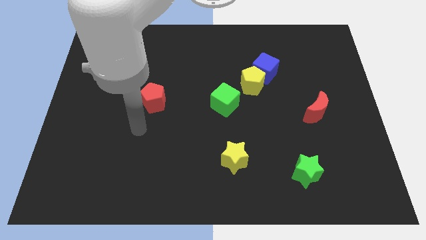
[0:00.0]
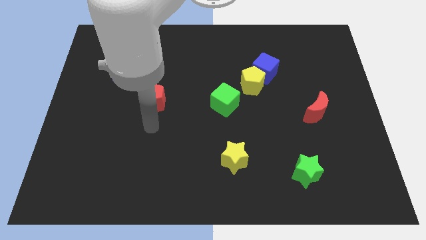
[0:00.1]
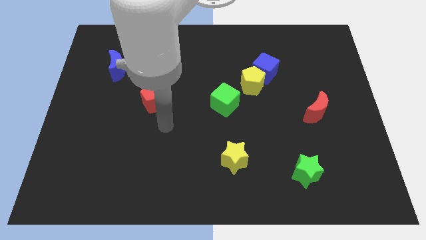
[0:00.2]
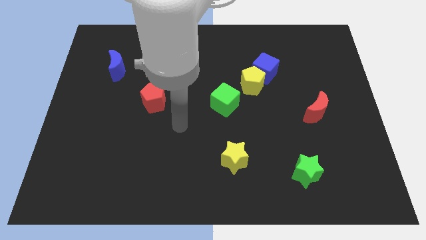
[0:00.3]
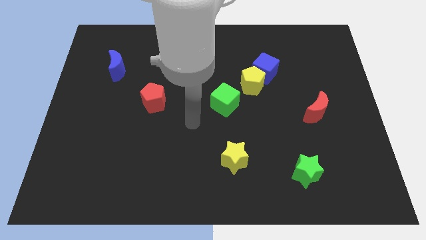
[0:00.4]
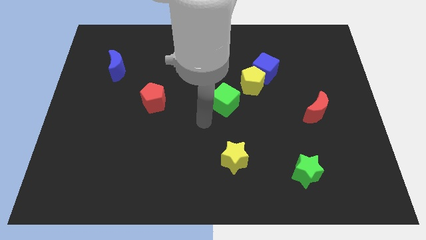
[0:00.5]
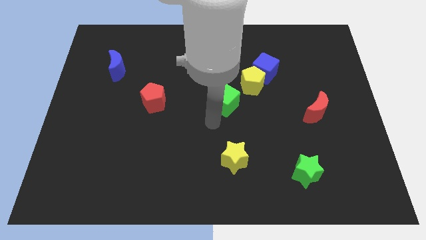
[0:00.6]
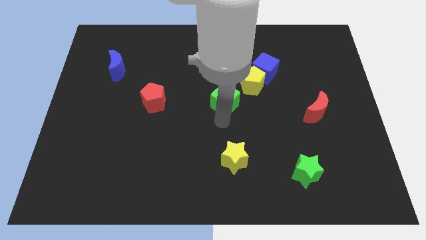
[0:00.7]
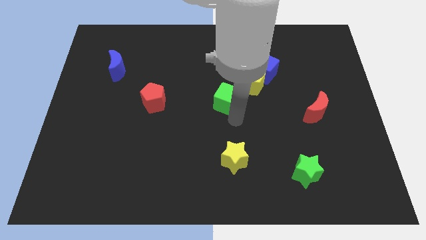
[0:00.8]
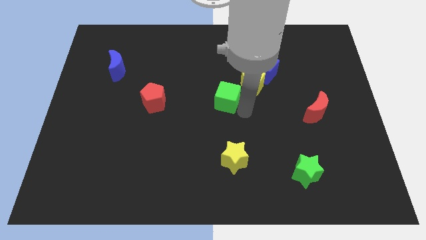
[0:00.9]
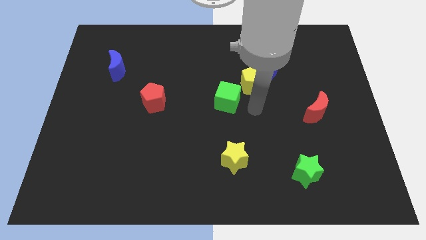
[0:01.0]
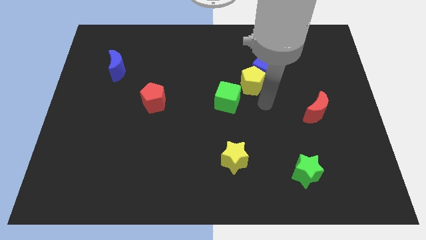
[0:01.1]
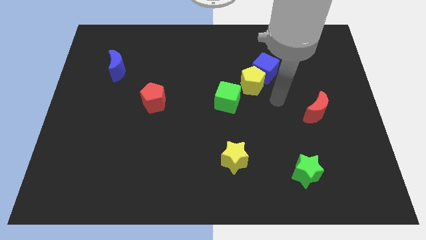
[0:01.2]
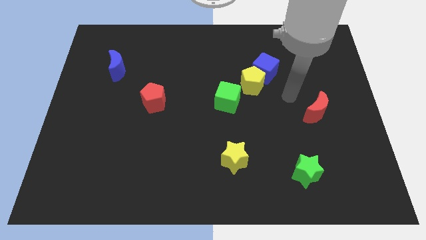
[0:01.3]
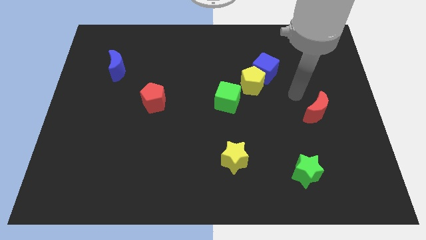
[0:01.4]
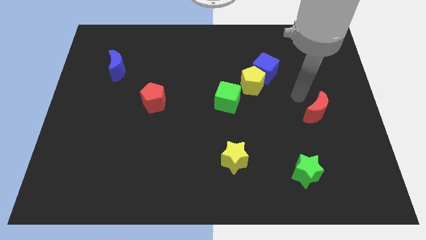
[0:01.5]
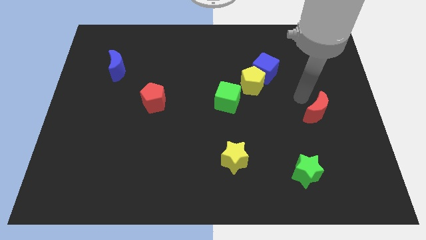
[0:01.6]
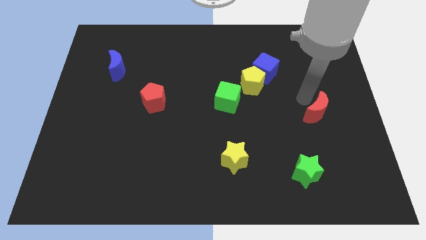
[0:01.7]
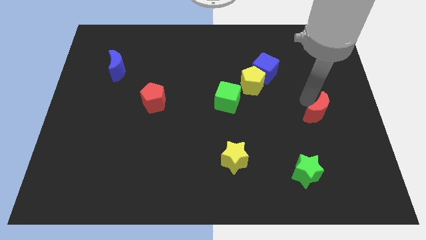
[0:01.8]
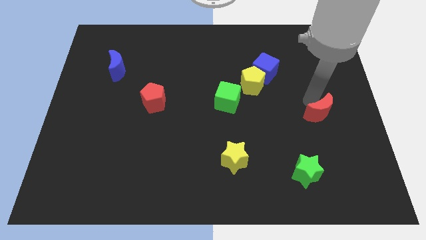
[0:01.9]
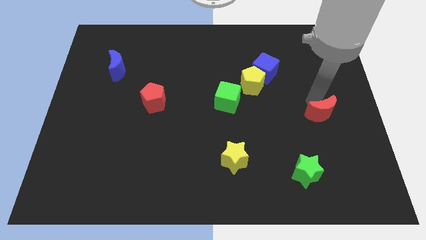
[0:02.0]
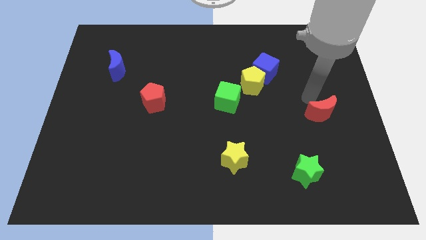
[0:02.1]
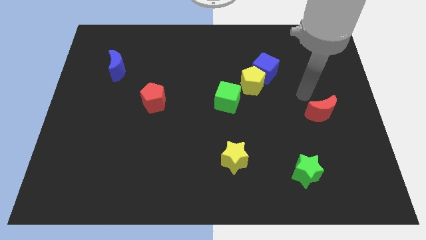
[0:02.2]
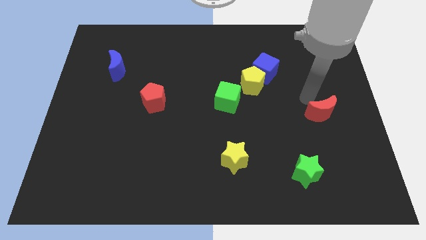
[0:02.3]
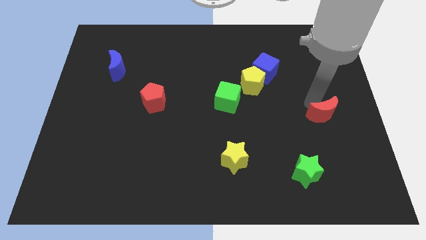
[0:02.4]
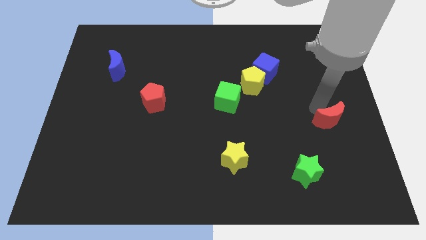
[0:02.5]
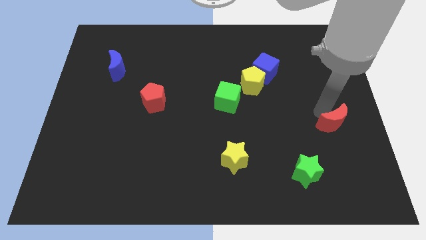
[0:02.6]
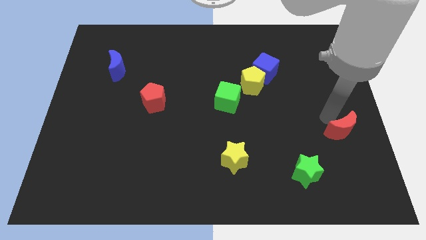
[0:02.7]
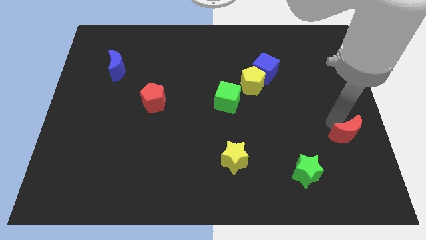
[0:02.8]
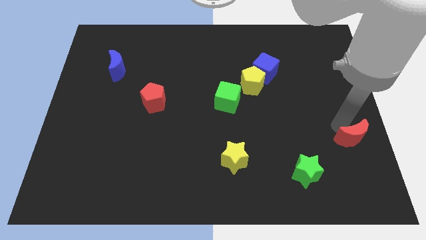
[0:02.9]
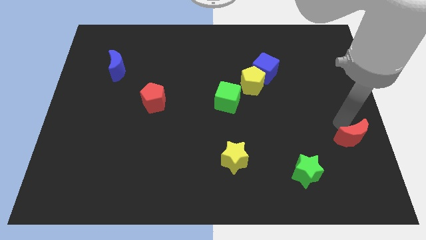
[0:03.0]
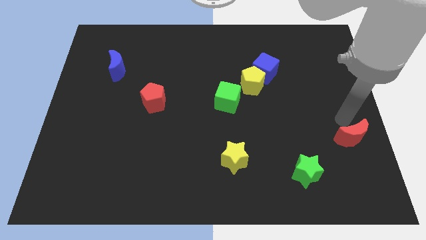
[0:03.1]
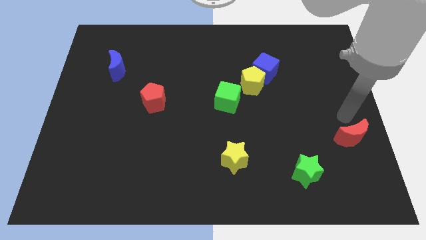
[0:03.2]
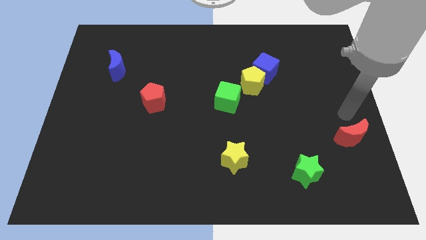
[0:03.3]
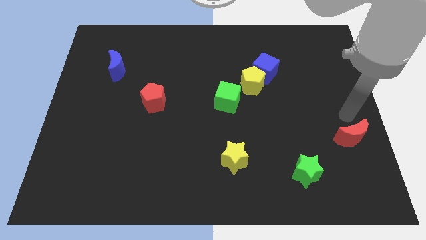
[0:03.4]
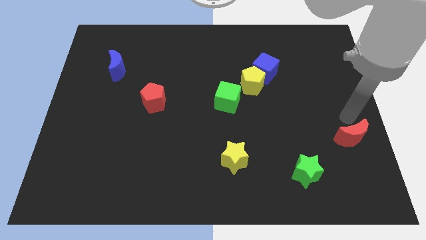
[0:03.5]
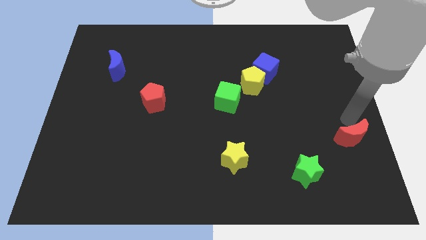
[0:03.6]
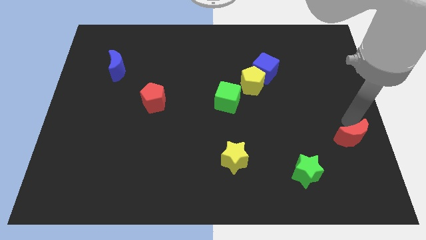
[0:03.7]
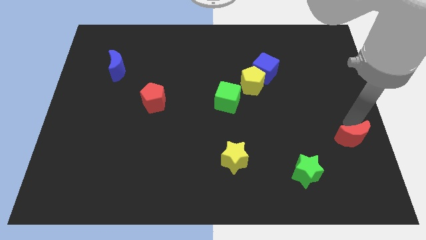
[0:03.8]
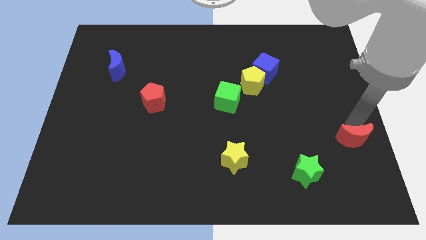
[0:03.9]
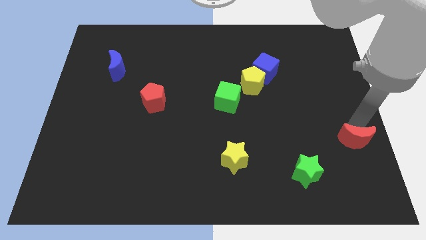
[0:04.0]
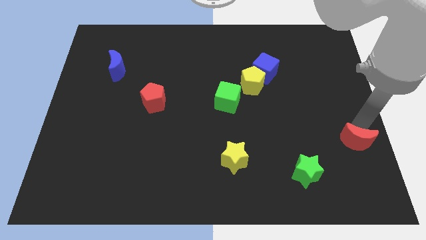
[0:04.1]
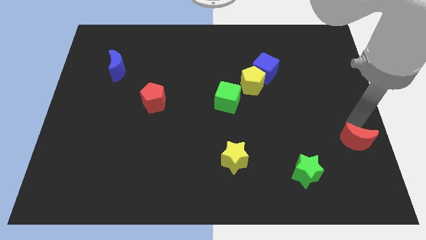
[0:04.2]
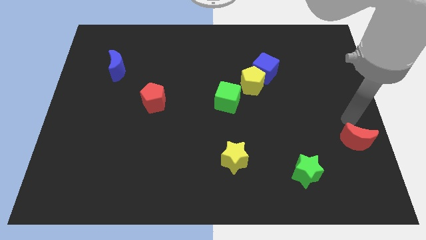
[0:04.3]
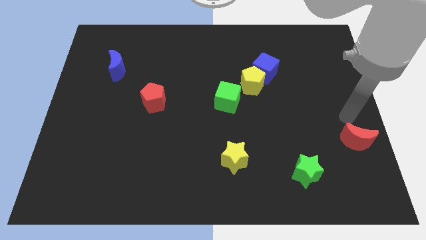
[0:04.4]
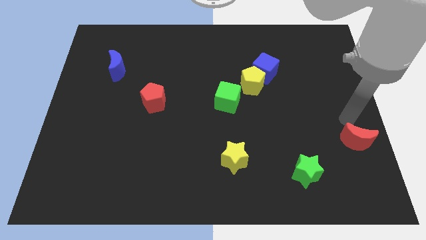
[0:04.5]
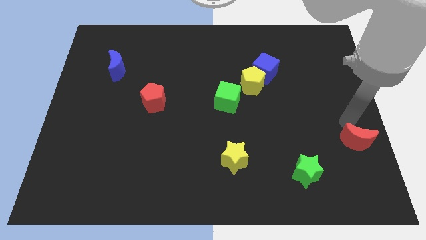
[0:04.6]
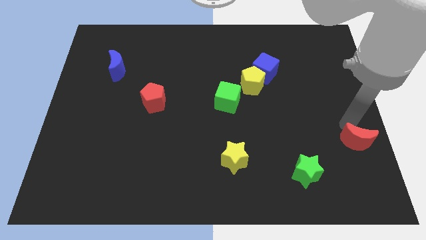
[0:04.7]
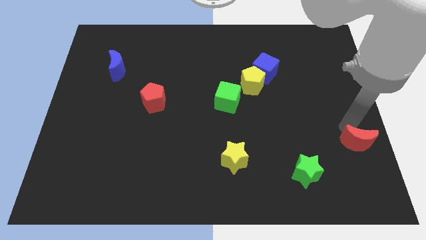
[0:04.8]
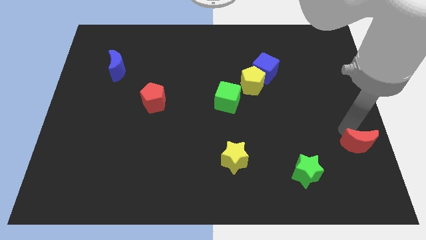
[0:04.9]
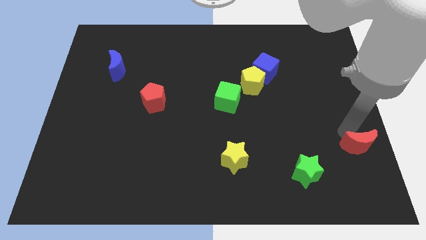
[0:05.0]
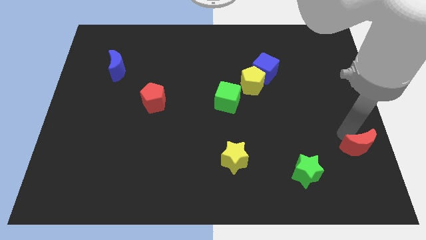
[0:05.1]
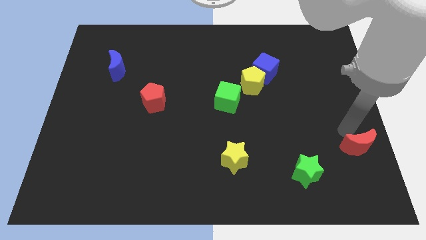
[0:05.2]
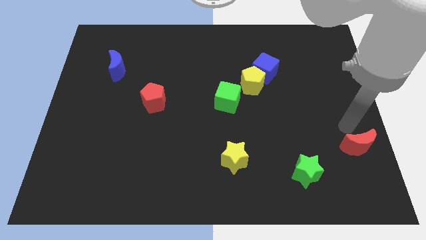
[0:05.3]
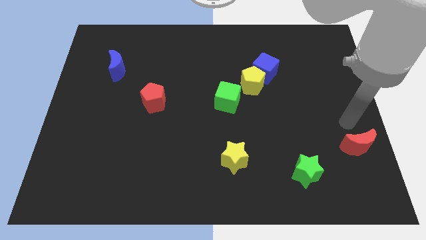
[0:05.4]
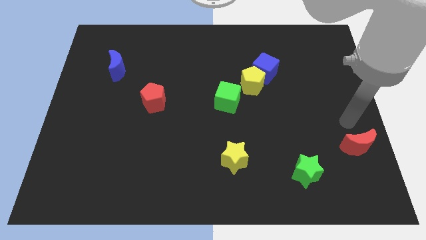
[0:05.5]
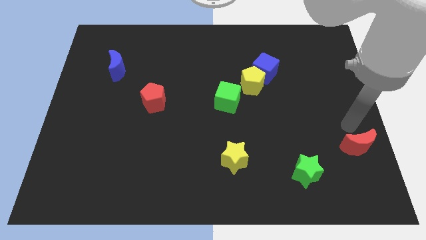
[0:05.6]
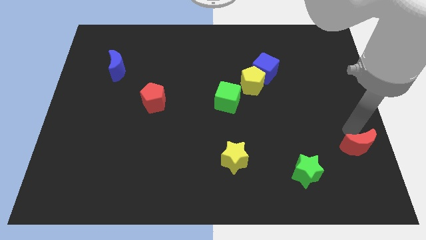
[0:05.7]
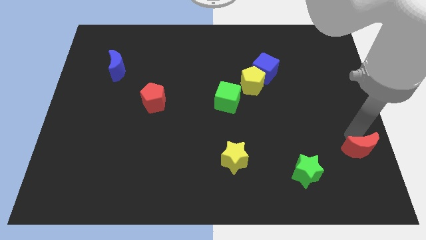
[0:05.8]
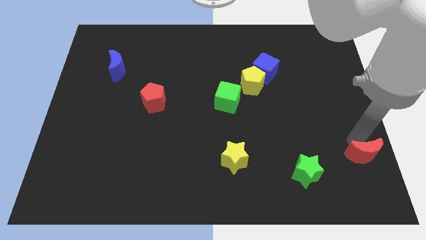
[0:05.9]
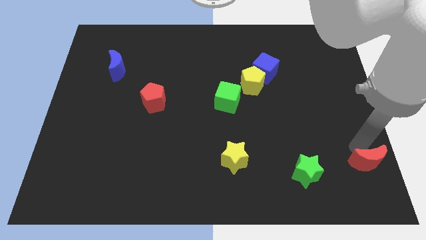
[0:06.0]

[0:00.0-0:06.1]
move the red moon to the bottom right corner

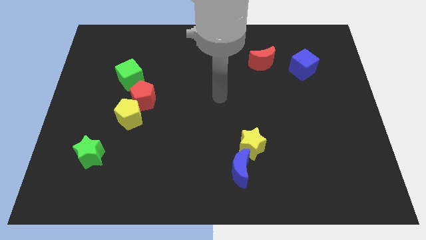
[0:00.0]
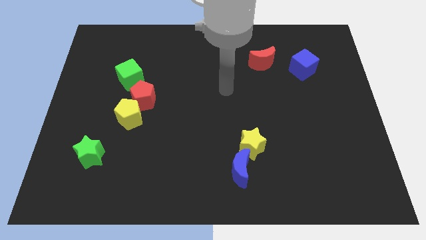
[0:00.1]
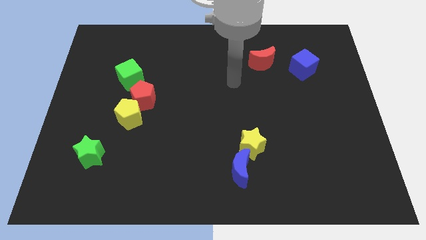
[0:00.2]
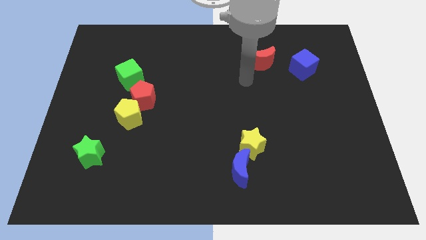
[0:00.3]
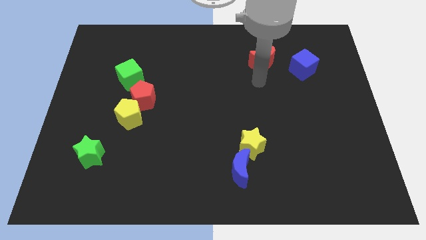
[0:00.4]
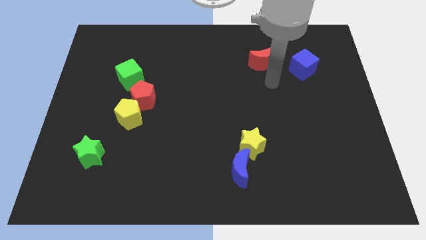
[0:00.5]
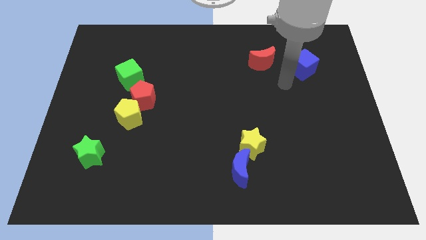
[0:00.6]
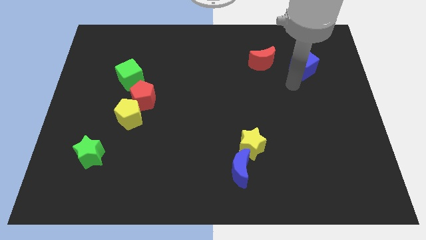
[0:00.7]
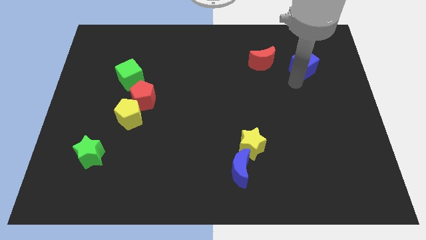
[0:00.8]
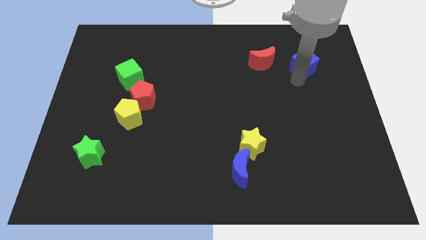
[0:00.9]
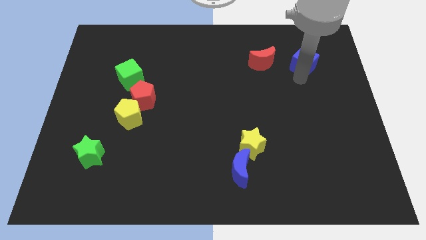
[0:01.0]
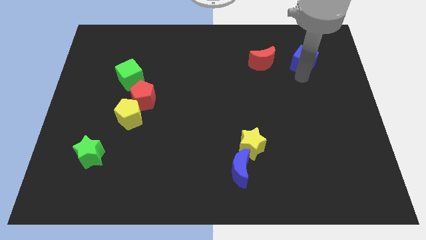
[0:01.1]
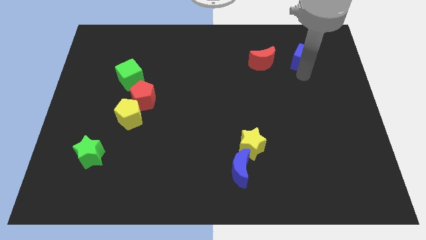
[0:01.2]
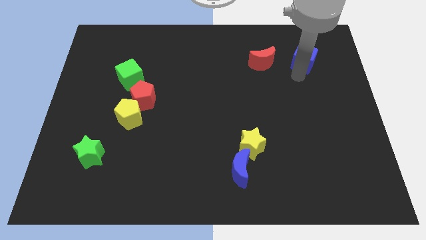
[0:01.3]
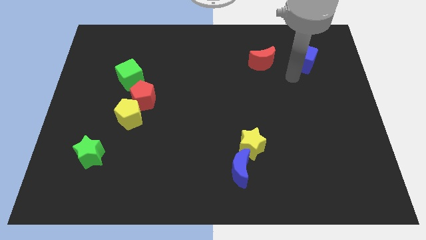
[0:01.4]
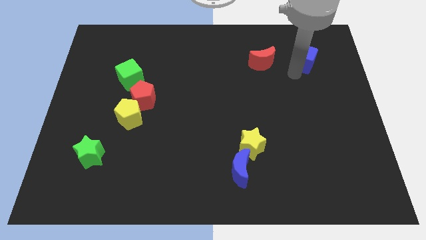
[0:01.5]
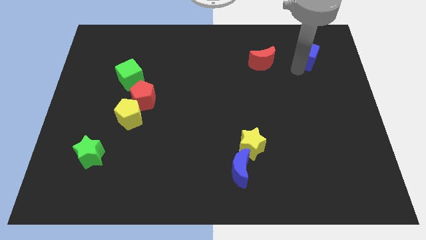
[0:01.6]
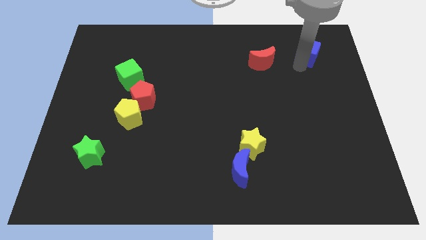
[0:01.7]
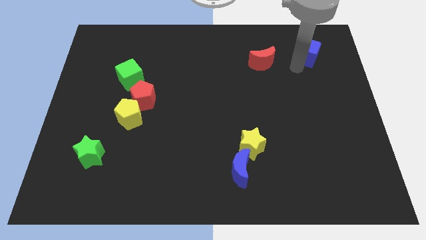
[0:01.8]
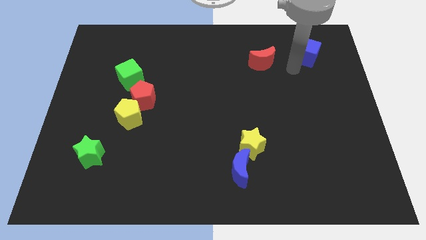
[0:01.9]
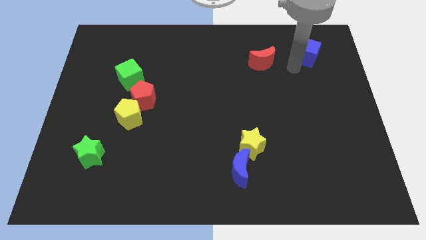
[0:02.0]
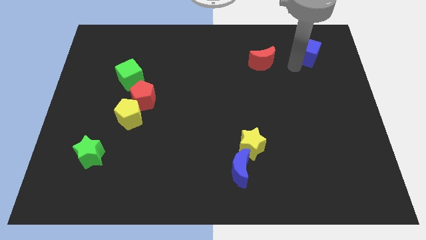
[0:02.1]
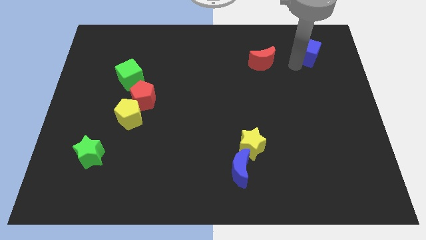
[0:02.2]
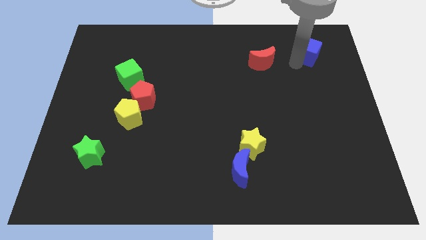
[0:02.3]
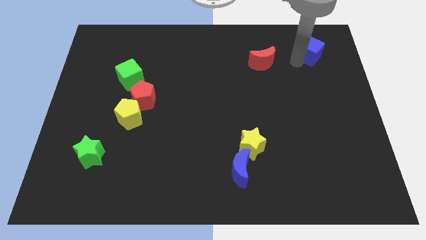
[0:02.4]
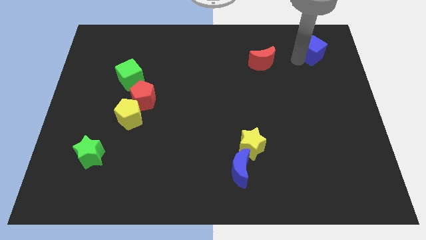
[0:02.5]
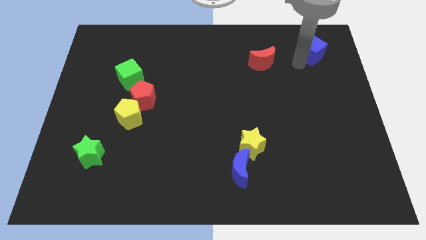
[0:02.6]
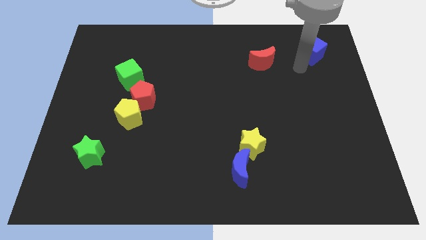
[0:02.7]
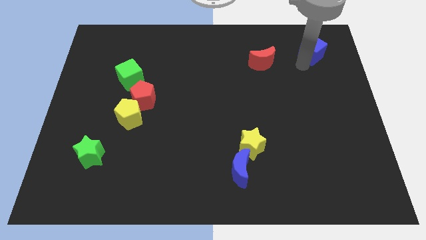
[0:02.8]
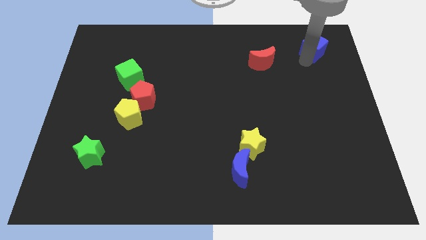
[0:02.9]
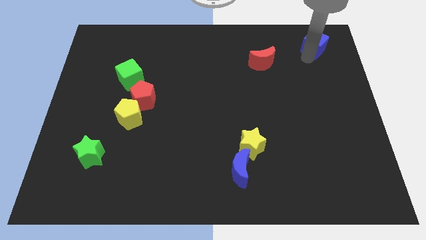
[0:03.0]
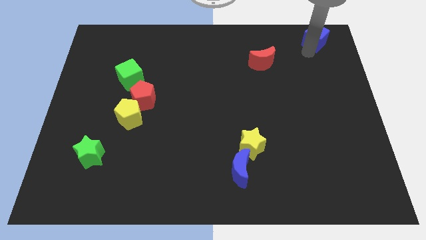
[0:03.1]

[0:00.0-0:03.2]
push the blue cube to the upper right corner
